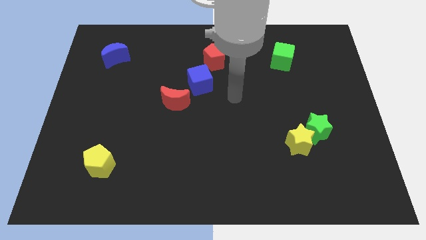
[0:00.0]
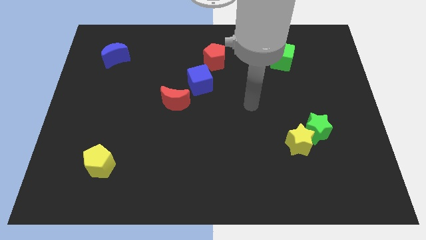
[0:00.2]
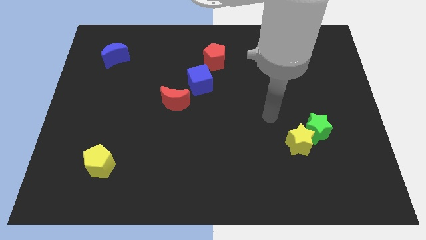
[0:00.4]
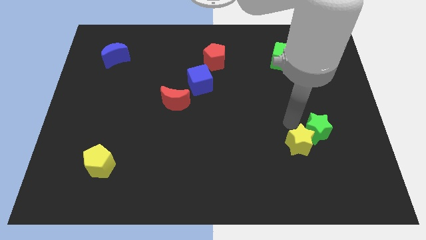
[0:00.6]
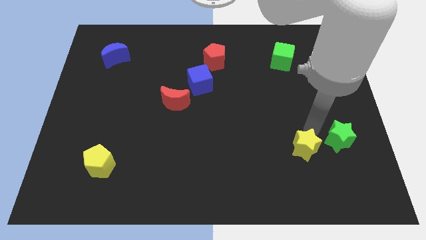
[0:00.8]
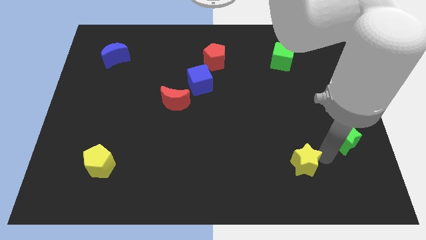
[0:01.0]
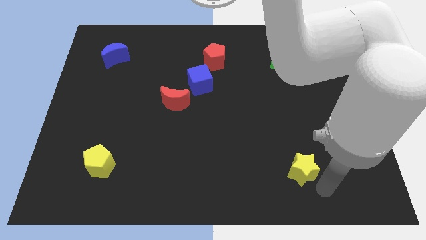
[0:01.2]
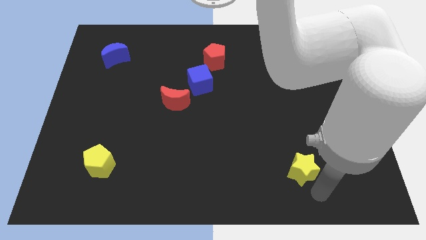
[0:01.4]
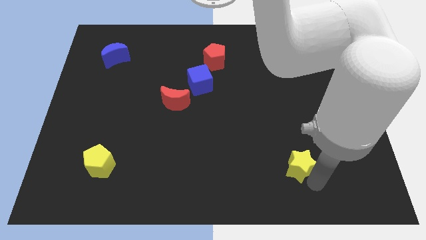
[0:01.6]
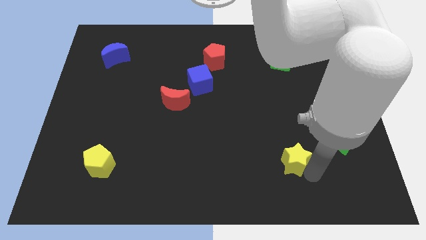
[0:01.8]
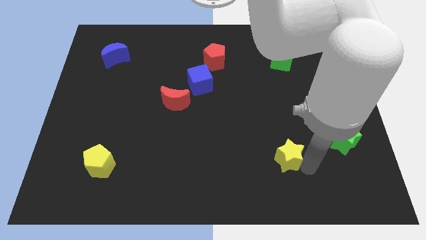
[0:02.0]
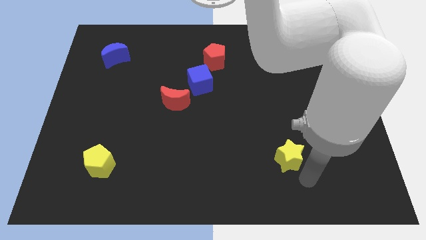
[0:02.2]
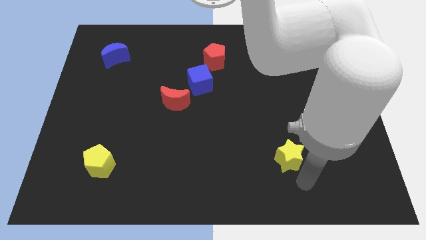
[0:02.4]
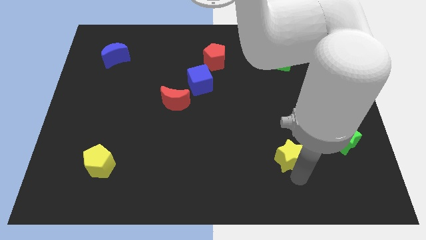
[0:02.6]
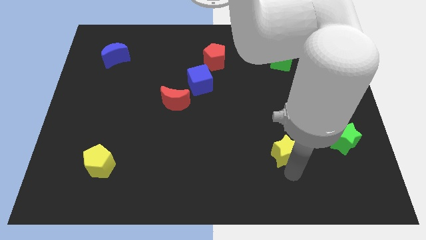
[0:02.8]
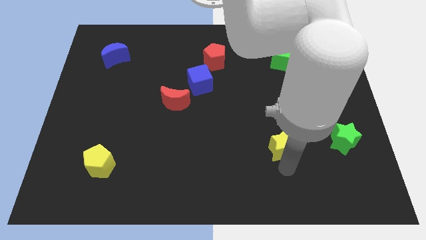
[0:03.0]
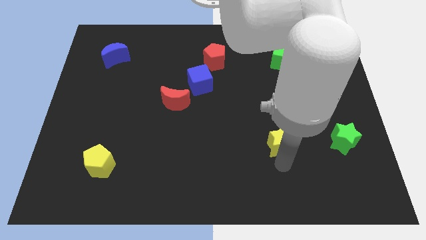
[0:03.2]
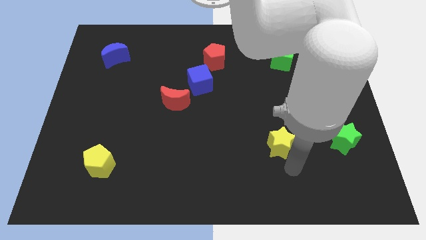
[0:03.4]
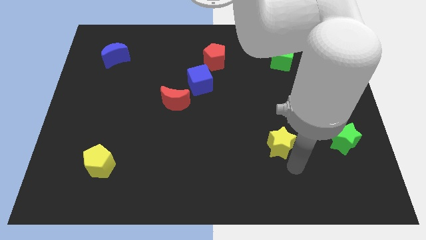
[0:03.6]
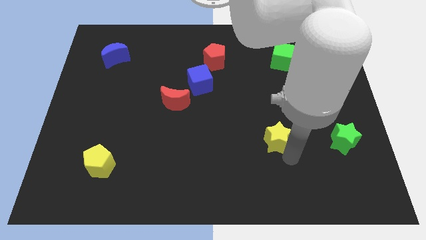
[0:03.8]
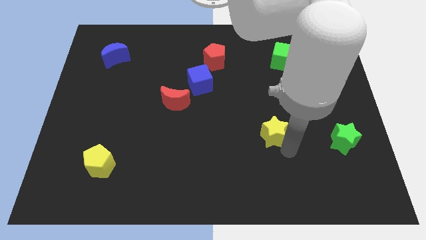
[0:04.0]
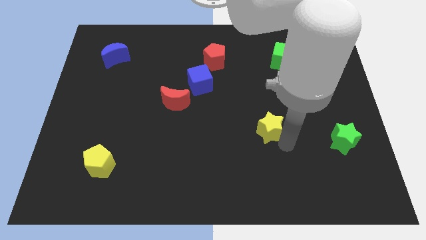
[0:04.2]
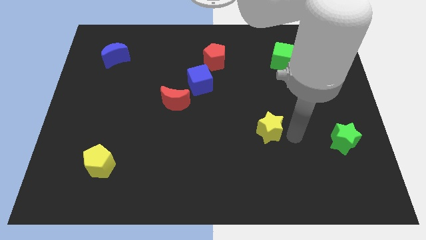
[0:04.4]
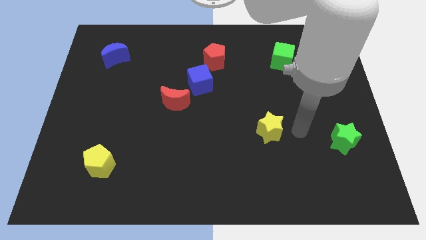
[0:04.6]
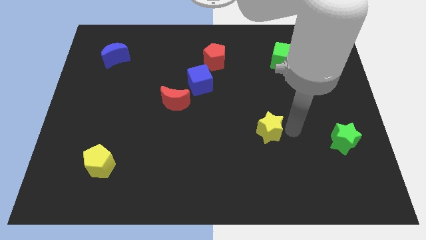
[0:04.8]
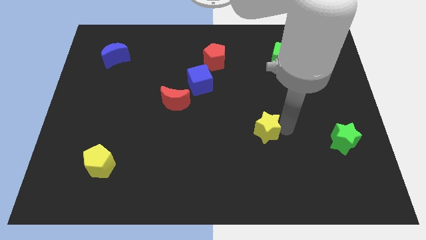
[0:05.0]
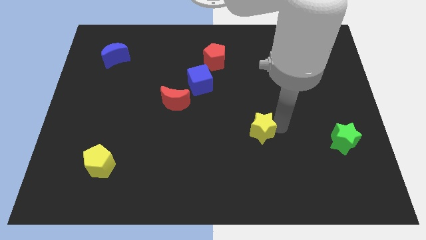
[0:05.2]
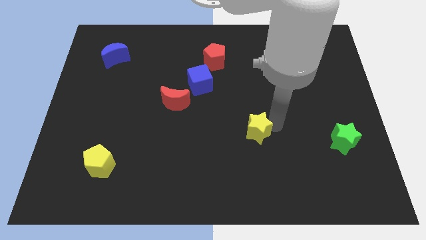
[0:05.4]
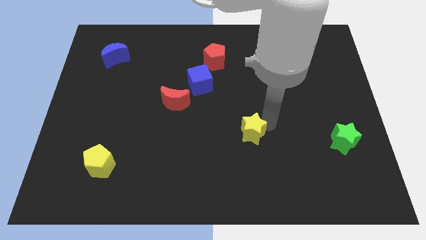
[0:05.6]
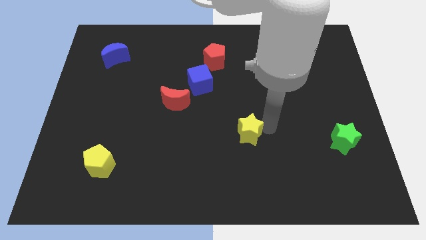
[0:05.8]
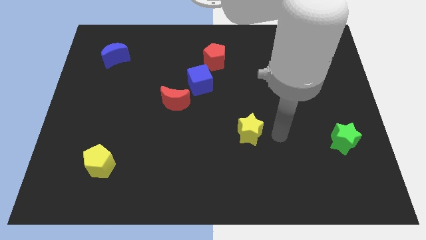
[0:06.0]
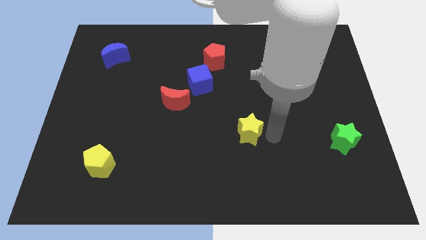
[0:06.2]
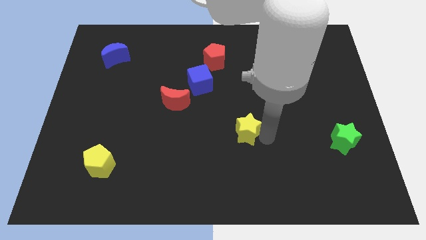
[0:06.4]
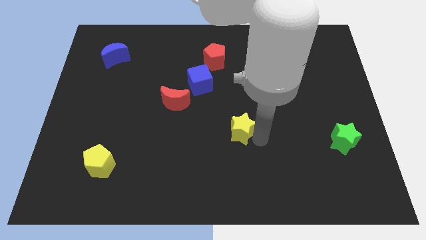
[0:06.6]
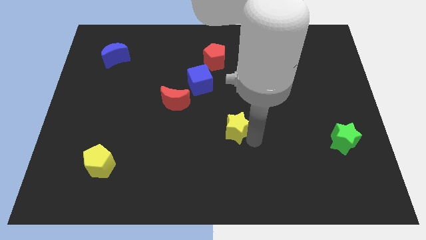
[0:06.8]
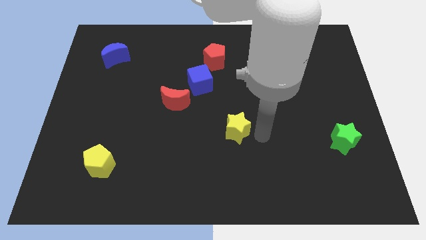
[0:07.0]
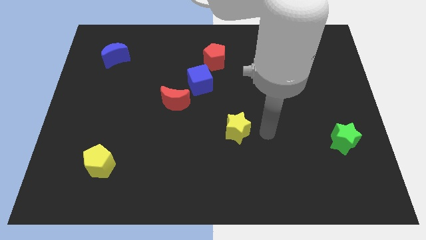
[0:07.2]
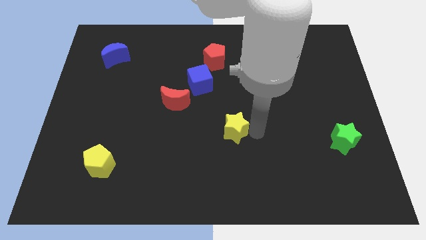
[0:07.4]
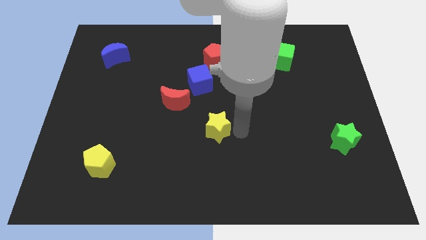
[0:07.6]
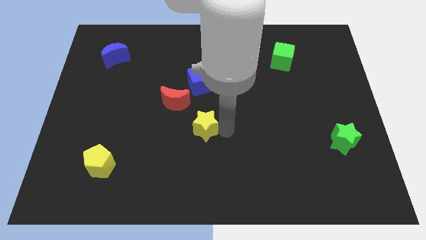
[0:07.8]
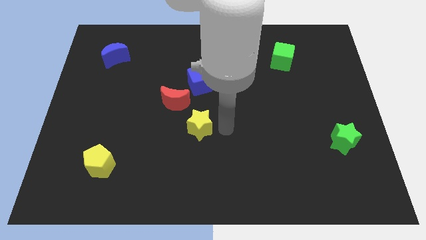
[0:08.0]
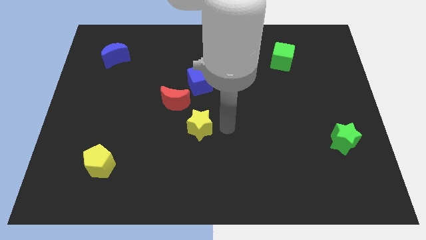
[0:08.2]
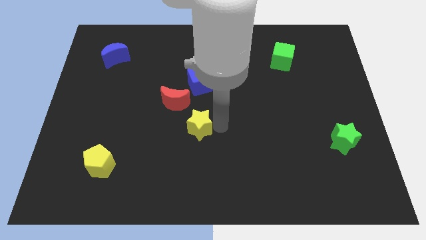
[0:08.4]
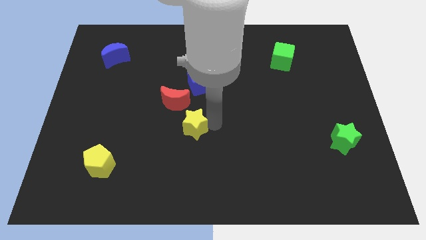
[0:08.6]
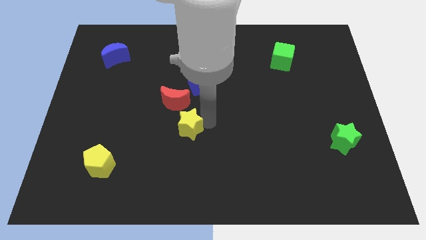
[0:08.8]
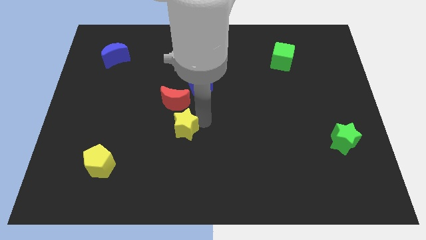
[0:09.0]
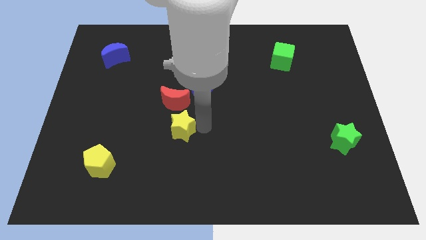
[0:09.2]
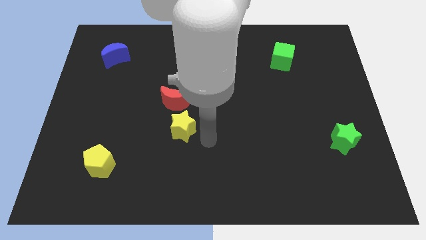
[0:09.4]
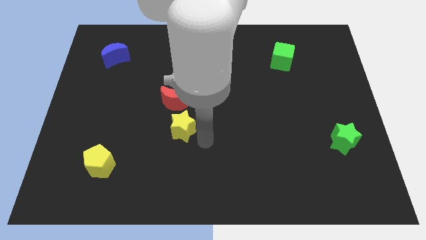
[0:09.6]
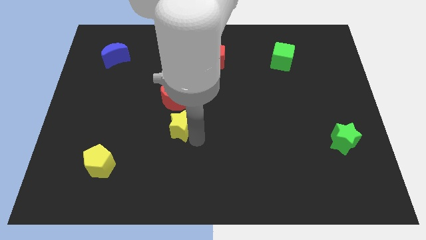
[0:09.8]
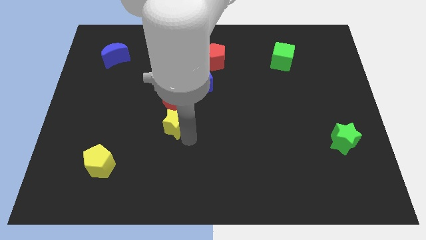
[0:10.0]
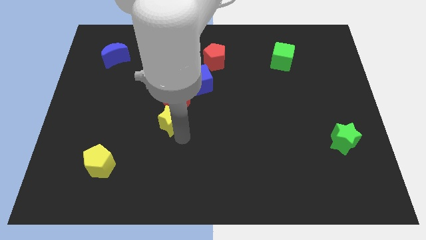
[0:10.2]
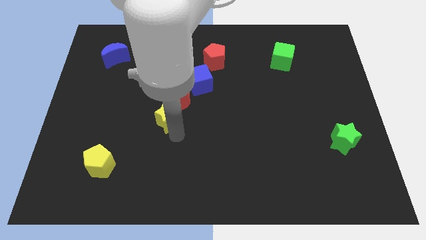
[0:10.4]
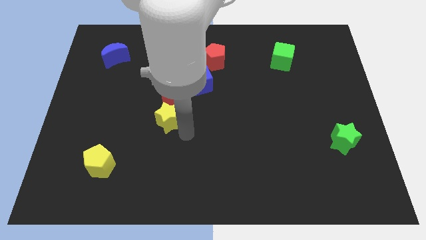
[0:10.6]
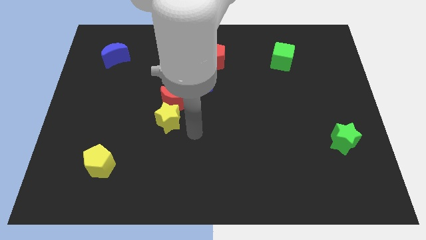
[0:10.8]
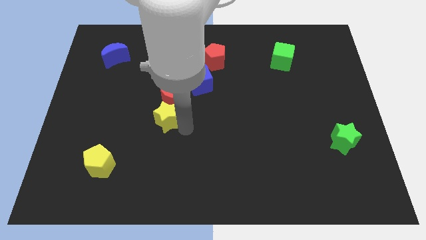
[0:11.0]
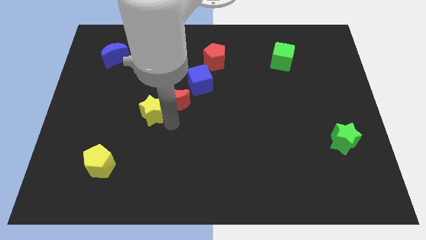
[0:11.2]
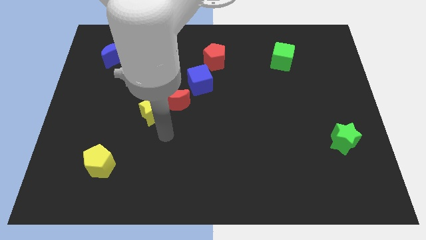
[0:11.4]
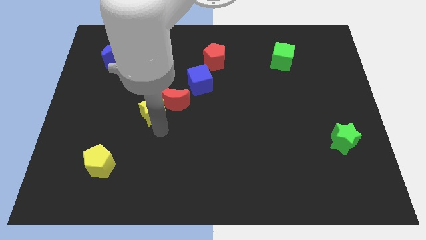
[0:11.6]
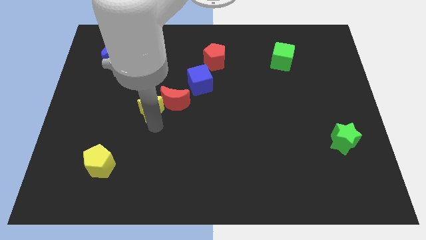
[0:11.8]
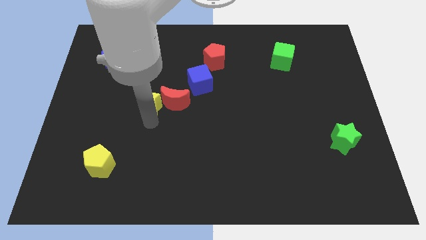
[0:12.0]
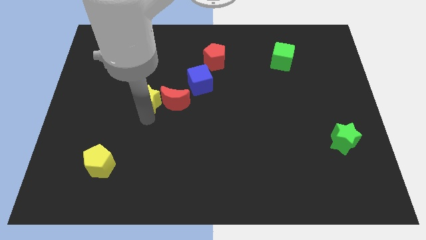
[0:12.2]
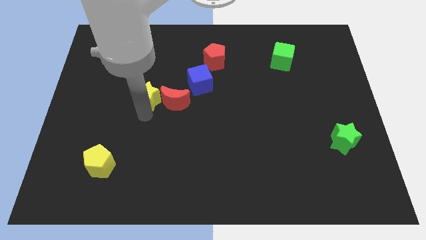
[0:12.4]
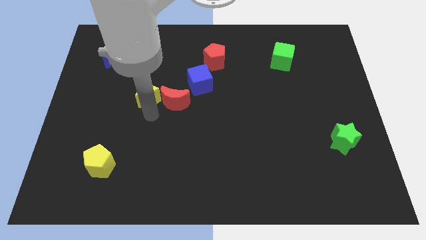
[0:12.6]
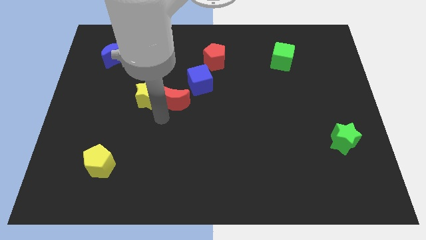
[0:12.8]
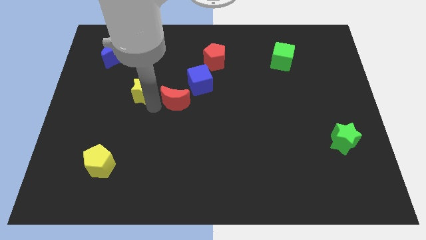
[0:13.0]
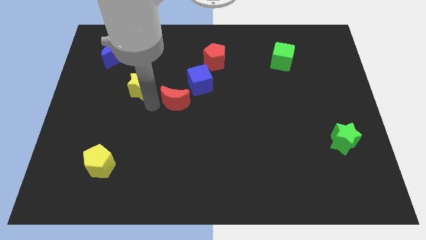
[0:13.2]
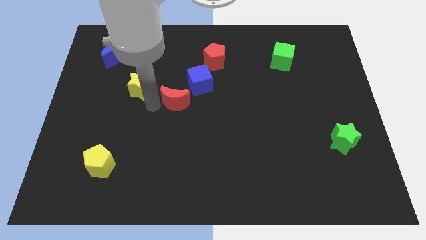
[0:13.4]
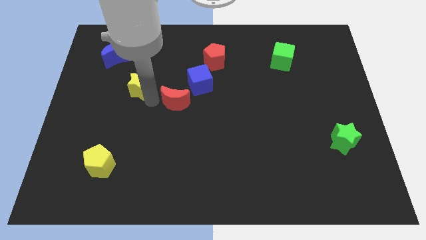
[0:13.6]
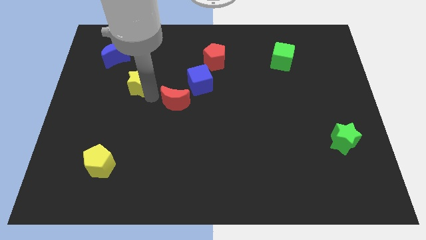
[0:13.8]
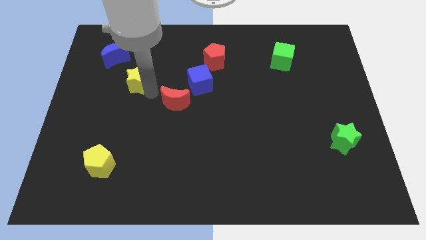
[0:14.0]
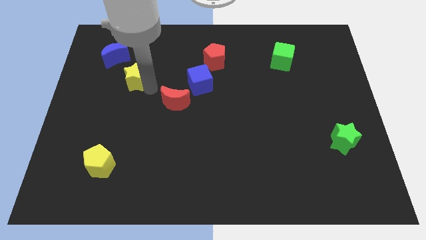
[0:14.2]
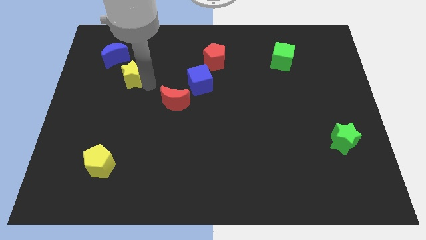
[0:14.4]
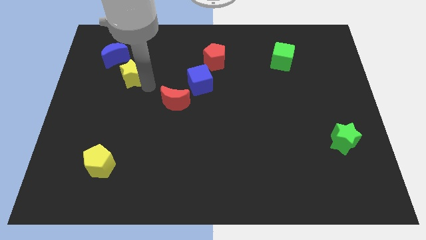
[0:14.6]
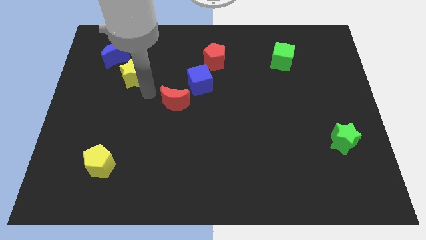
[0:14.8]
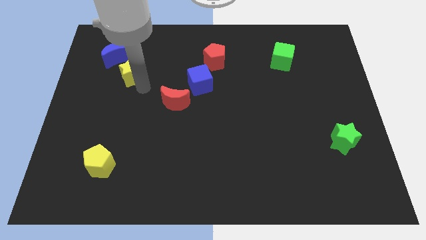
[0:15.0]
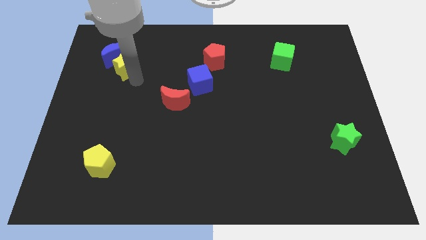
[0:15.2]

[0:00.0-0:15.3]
slide the yellow star towards the blue moon

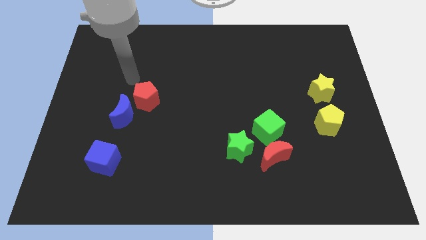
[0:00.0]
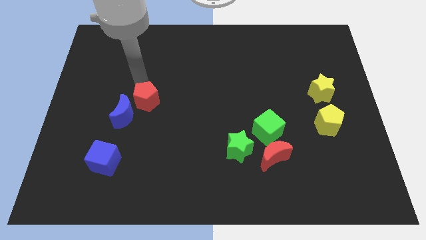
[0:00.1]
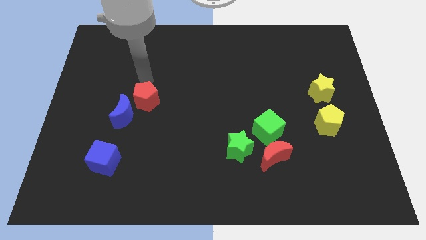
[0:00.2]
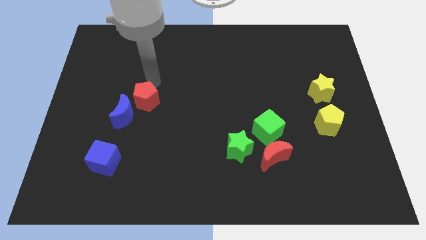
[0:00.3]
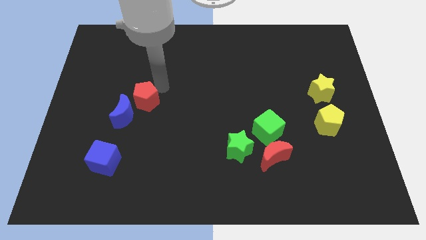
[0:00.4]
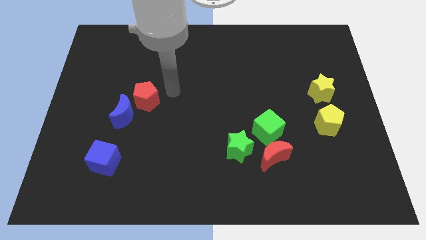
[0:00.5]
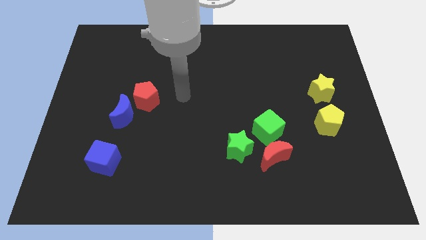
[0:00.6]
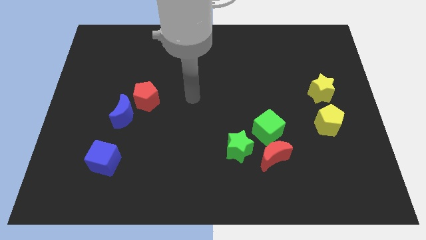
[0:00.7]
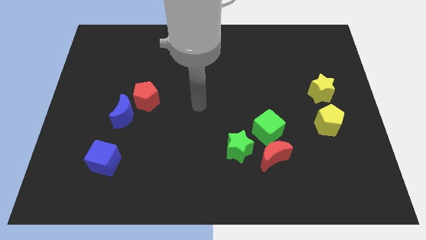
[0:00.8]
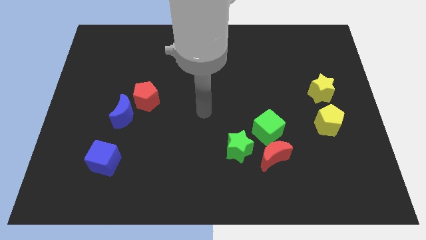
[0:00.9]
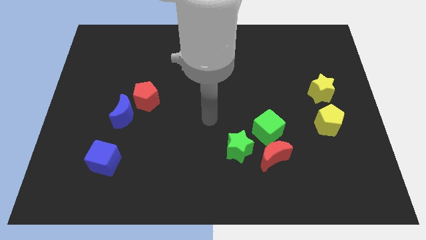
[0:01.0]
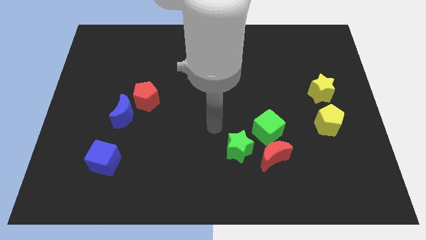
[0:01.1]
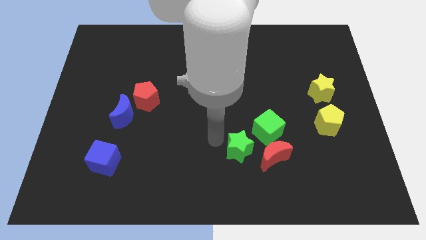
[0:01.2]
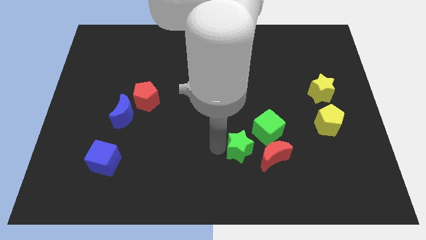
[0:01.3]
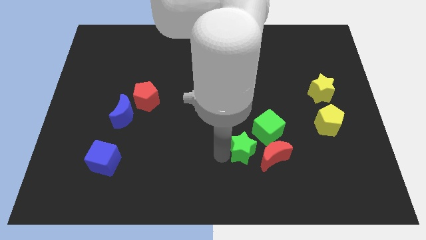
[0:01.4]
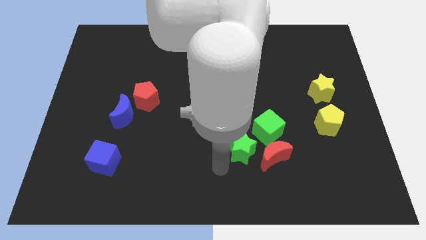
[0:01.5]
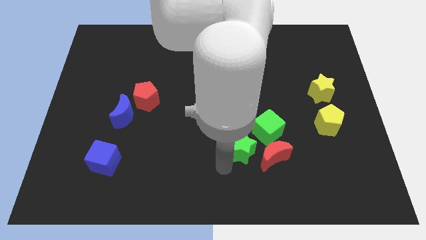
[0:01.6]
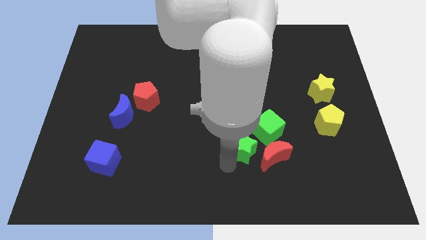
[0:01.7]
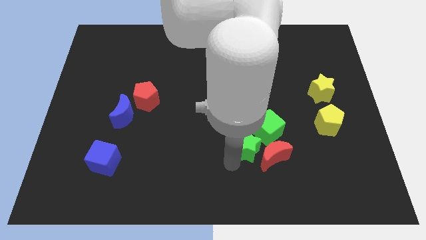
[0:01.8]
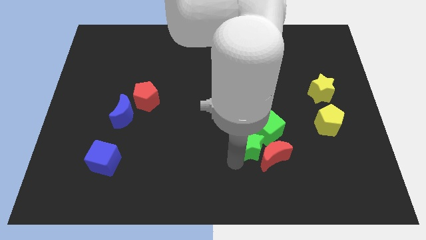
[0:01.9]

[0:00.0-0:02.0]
put the green star to the green cube
